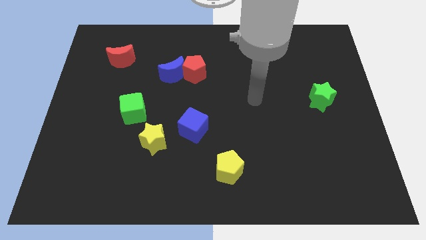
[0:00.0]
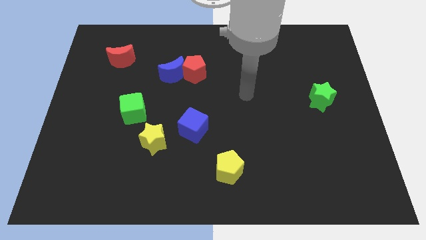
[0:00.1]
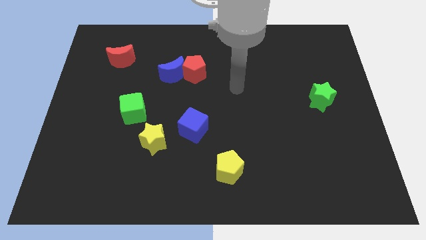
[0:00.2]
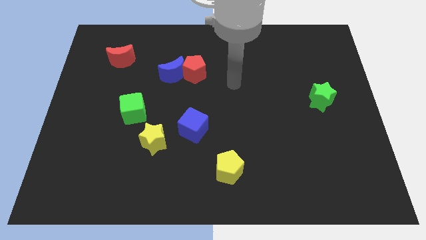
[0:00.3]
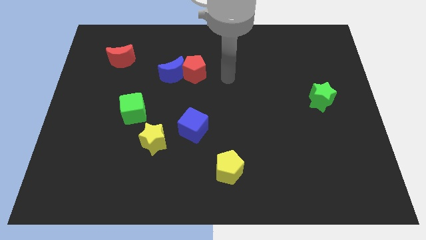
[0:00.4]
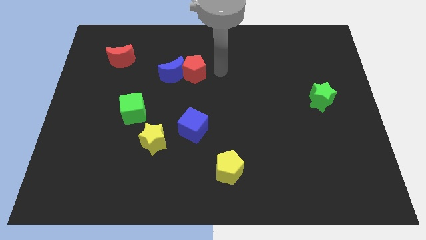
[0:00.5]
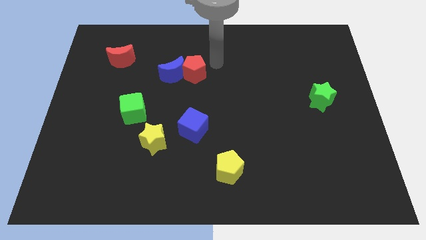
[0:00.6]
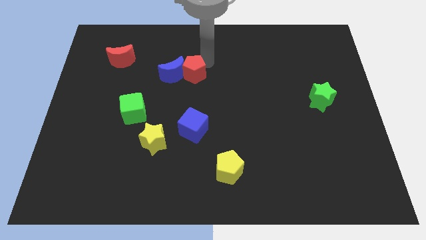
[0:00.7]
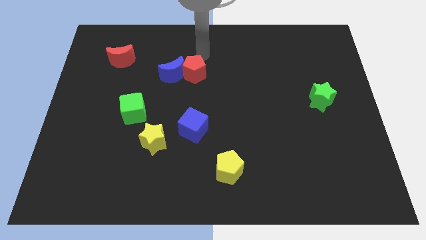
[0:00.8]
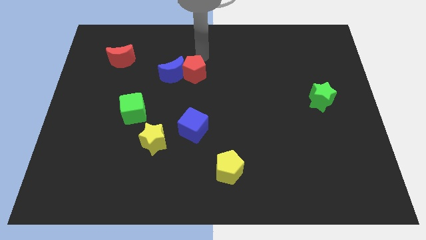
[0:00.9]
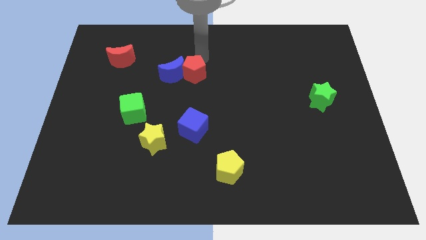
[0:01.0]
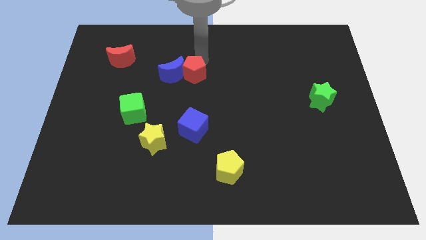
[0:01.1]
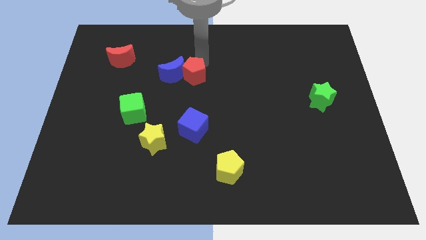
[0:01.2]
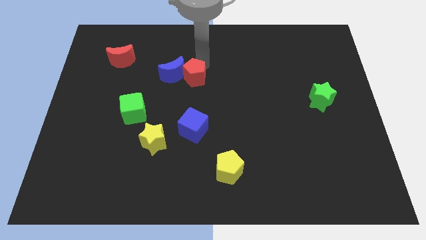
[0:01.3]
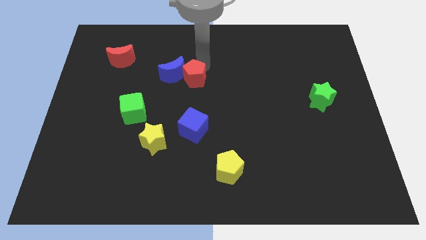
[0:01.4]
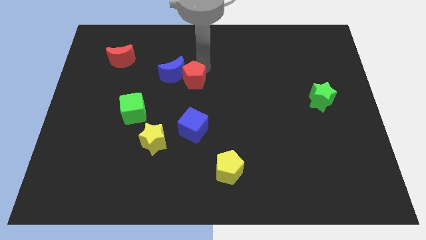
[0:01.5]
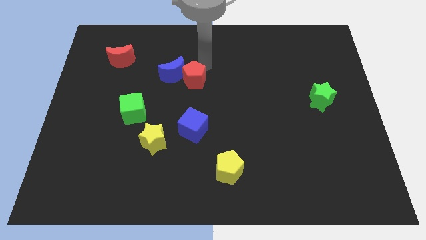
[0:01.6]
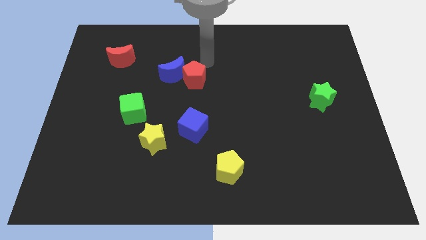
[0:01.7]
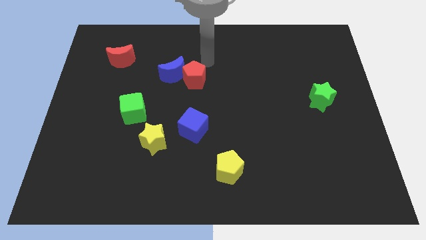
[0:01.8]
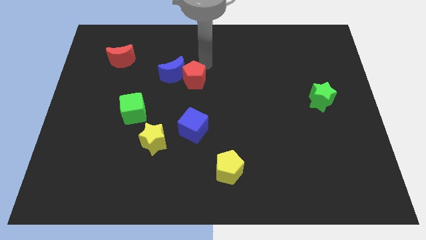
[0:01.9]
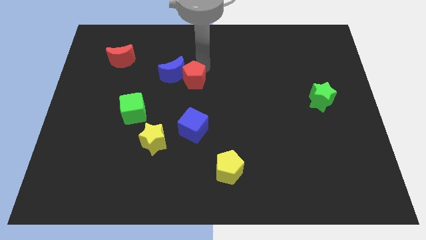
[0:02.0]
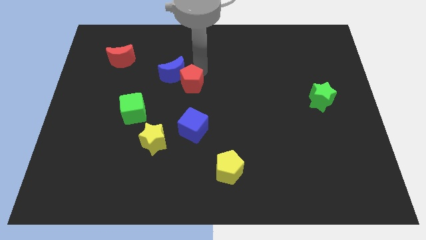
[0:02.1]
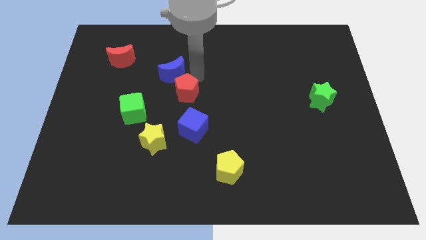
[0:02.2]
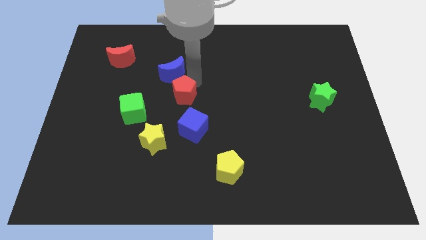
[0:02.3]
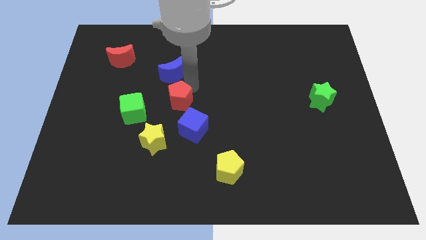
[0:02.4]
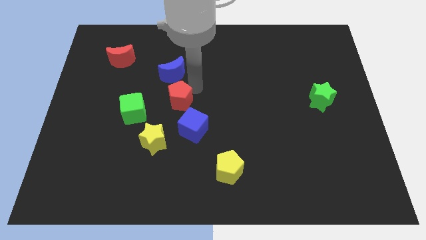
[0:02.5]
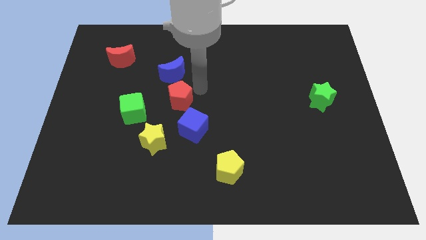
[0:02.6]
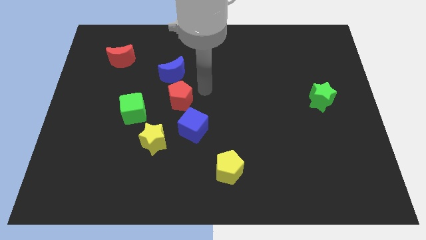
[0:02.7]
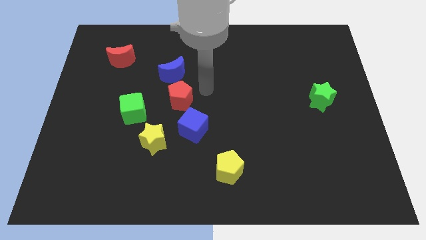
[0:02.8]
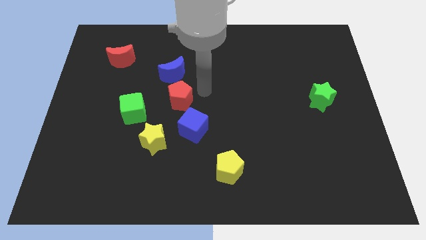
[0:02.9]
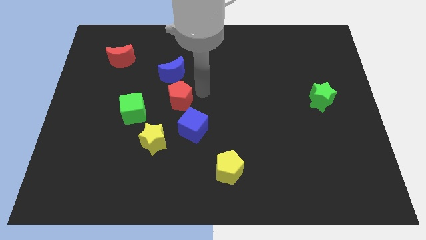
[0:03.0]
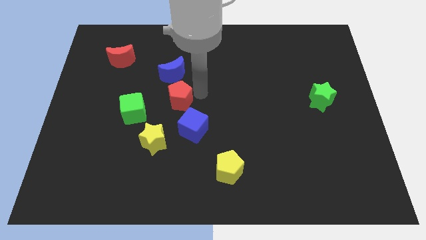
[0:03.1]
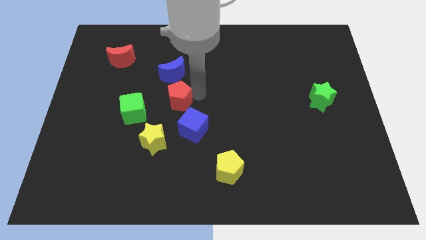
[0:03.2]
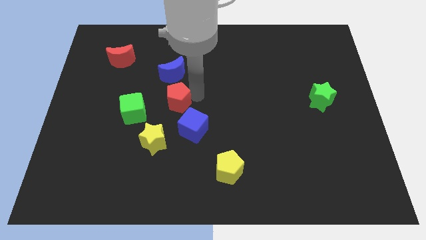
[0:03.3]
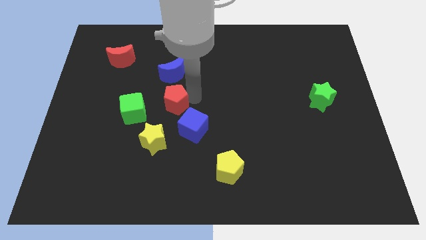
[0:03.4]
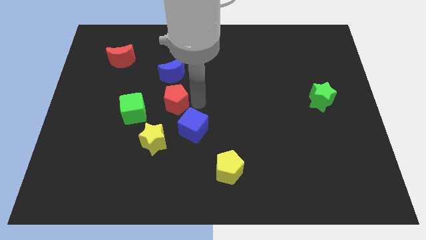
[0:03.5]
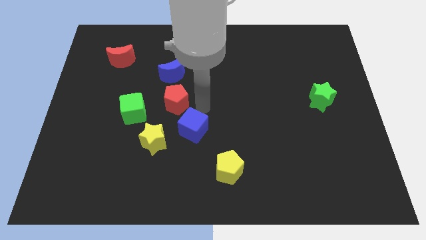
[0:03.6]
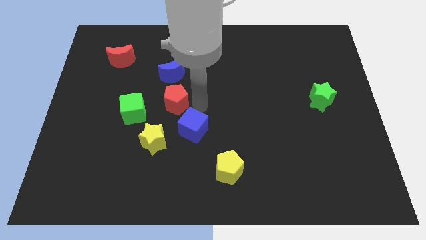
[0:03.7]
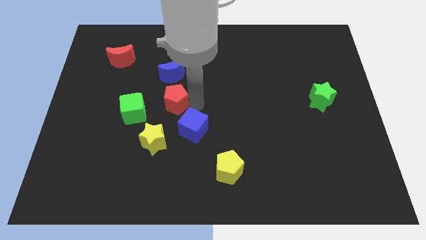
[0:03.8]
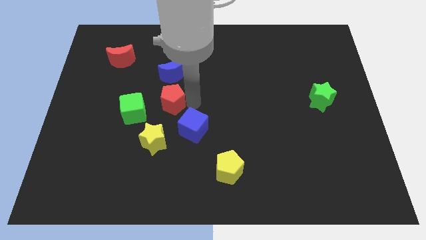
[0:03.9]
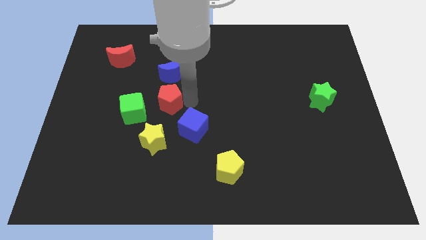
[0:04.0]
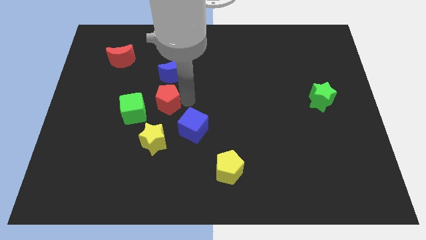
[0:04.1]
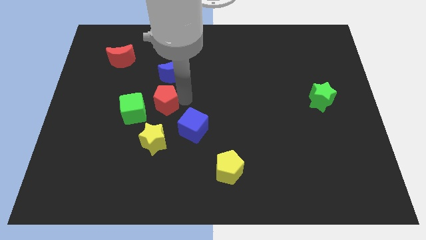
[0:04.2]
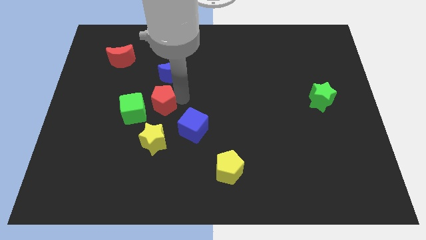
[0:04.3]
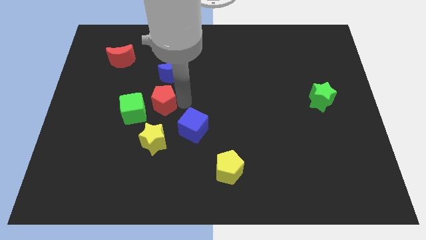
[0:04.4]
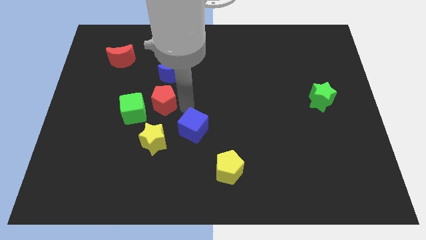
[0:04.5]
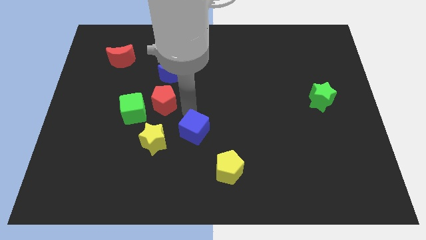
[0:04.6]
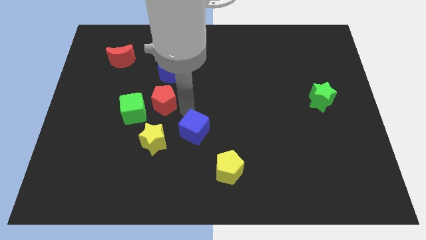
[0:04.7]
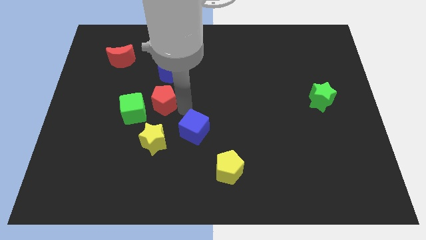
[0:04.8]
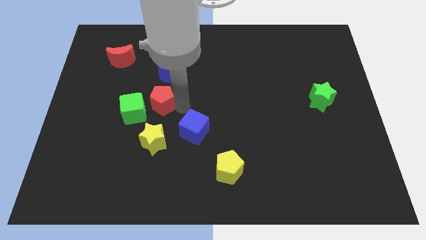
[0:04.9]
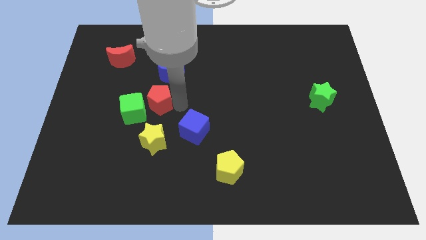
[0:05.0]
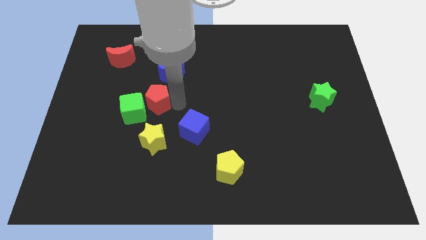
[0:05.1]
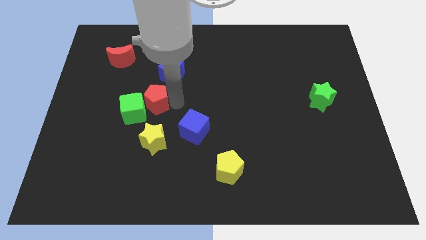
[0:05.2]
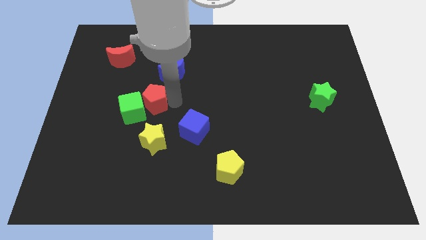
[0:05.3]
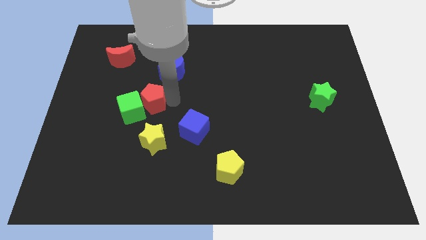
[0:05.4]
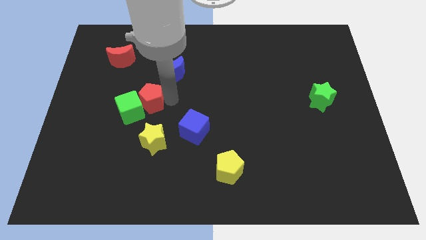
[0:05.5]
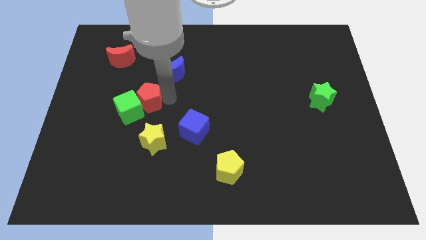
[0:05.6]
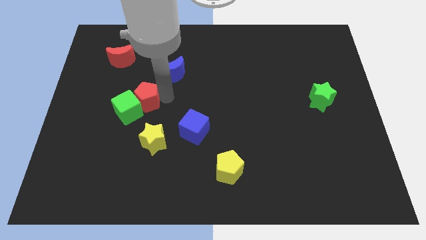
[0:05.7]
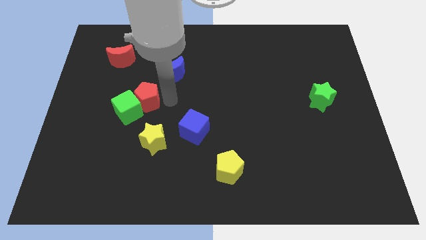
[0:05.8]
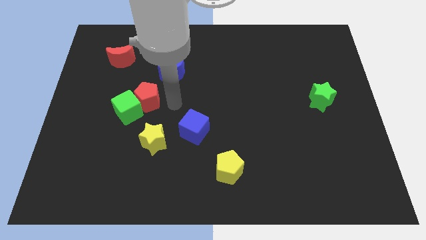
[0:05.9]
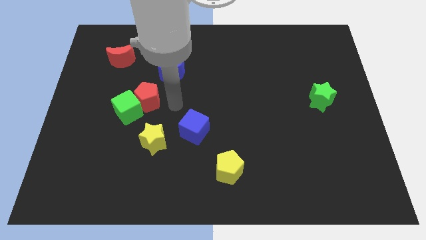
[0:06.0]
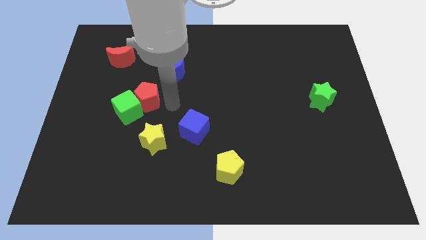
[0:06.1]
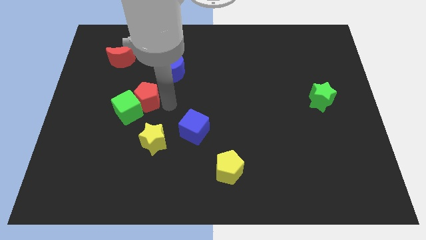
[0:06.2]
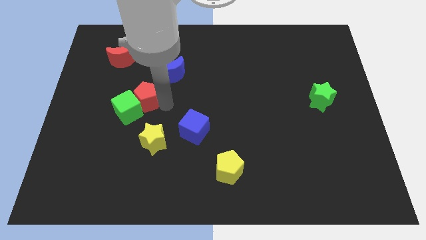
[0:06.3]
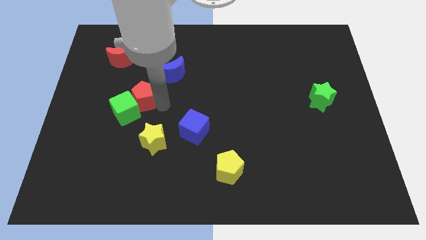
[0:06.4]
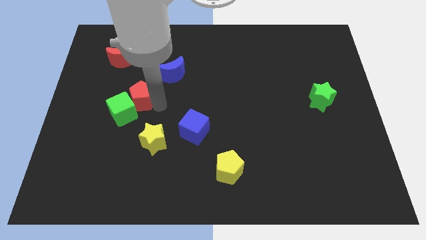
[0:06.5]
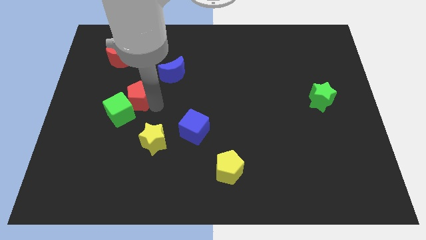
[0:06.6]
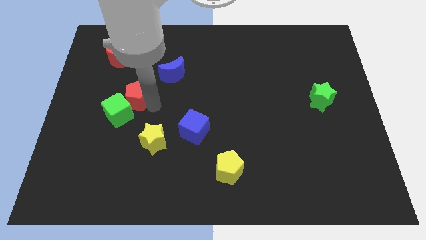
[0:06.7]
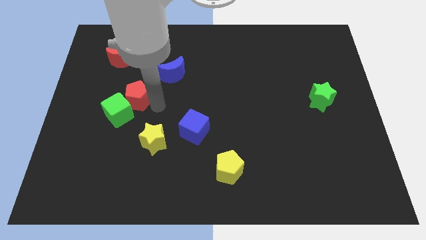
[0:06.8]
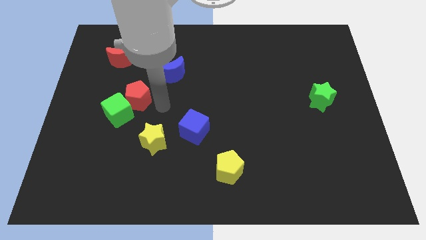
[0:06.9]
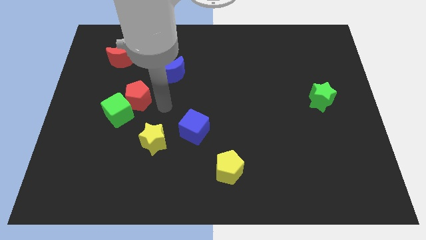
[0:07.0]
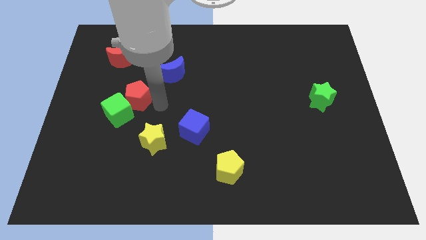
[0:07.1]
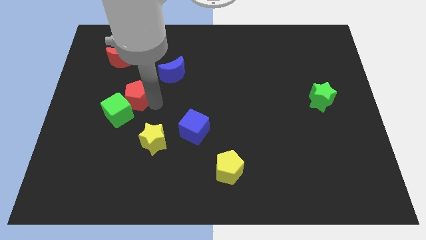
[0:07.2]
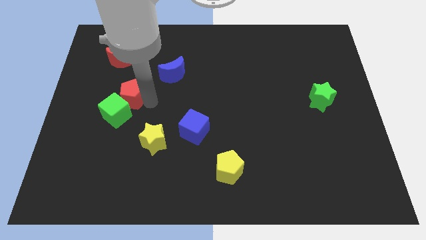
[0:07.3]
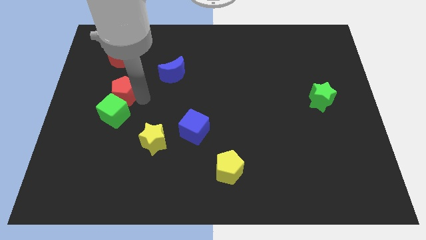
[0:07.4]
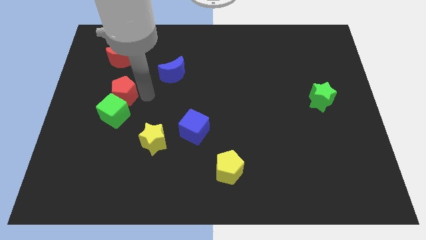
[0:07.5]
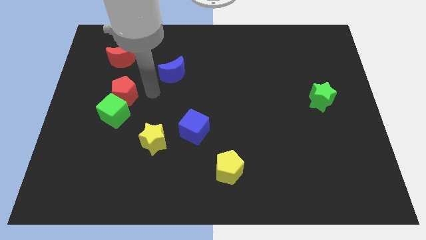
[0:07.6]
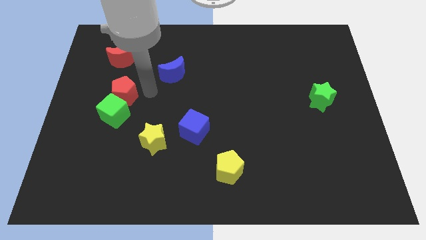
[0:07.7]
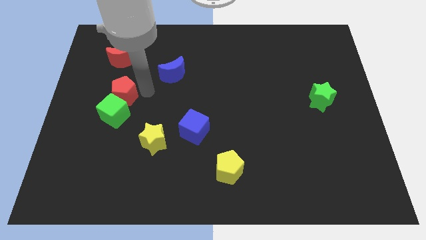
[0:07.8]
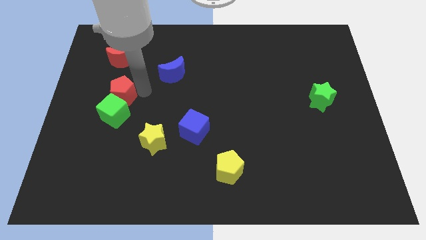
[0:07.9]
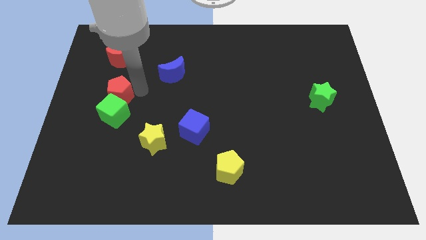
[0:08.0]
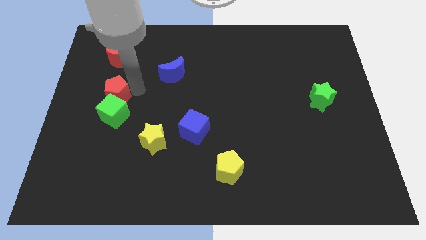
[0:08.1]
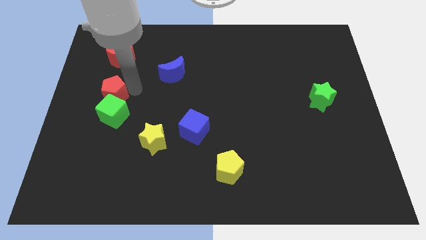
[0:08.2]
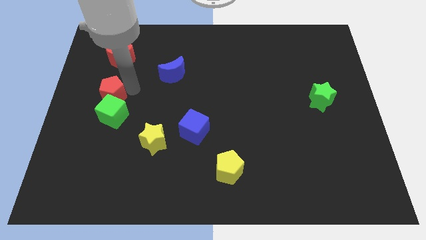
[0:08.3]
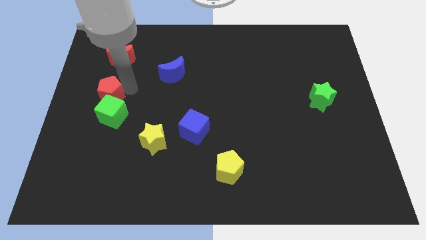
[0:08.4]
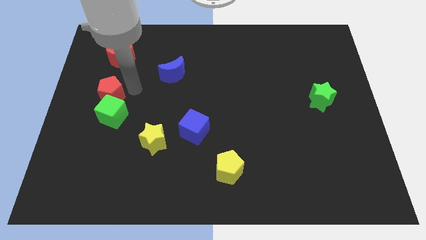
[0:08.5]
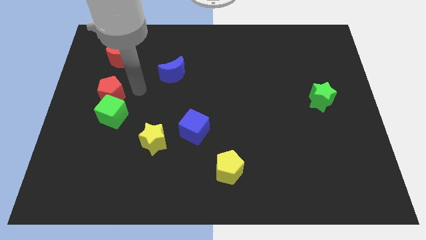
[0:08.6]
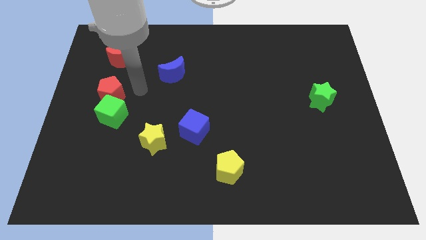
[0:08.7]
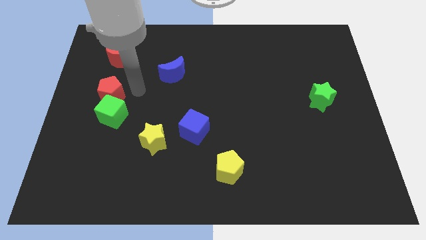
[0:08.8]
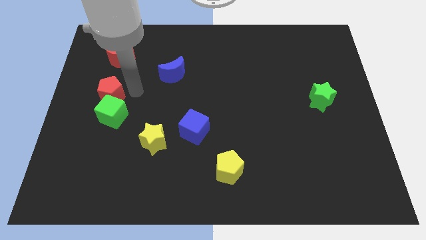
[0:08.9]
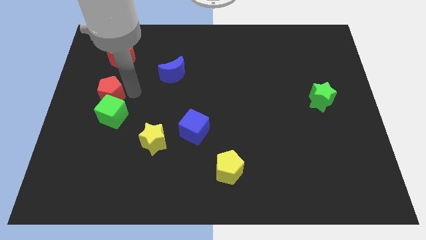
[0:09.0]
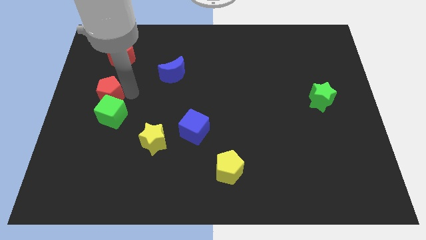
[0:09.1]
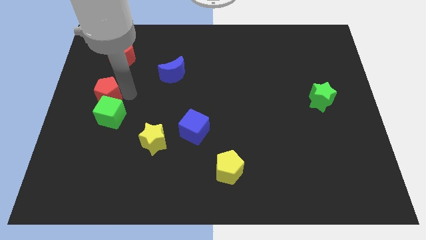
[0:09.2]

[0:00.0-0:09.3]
slide the red pentagon to the left side of the board
